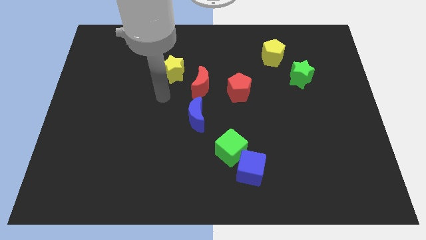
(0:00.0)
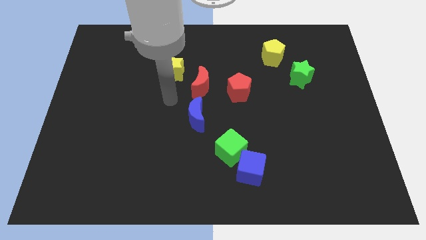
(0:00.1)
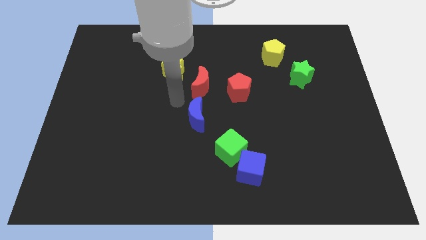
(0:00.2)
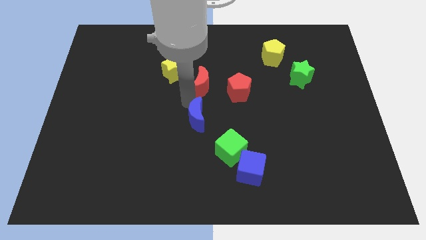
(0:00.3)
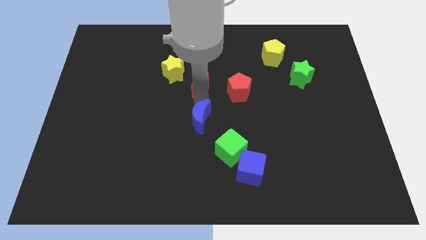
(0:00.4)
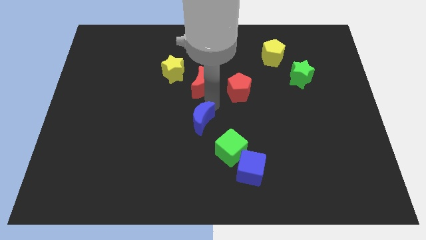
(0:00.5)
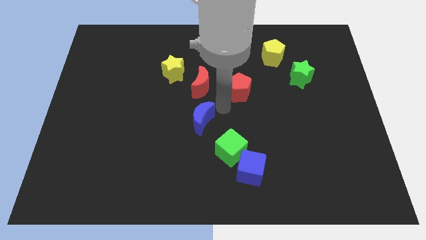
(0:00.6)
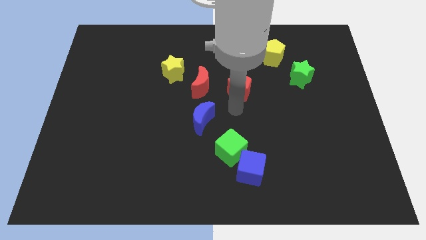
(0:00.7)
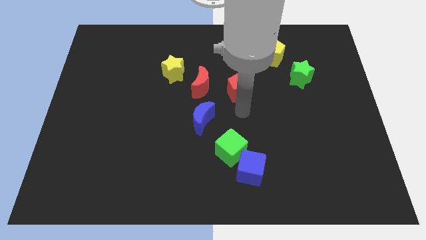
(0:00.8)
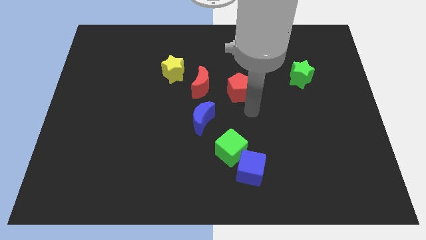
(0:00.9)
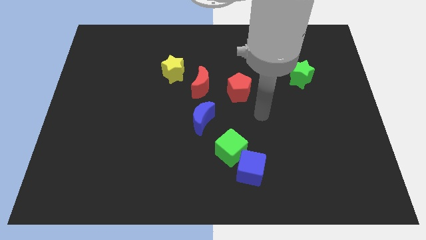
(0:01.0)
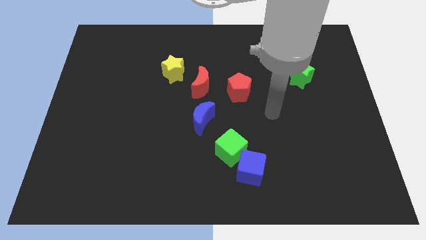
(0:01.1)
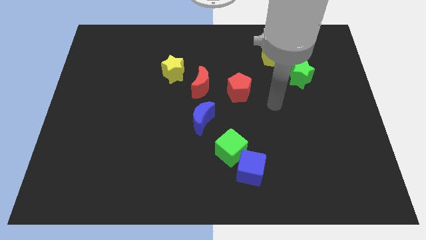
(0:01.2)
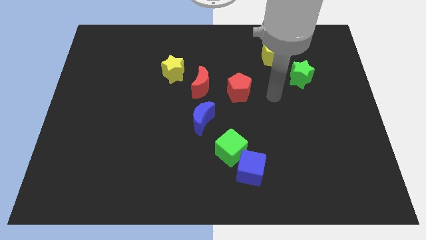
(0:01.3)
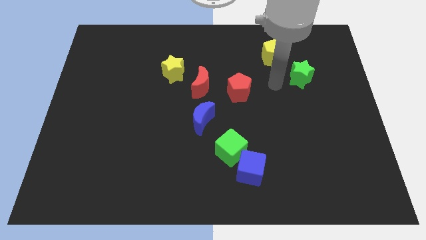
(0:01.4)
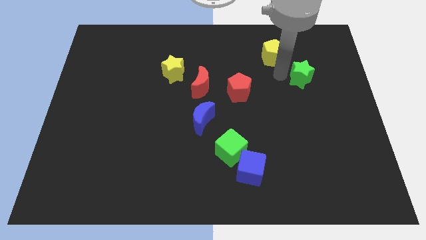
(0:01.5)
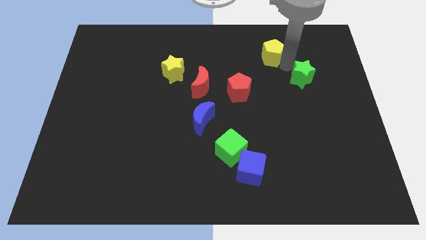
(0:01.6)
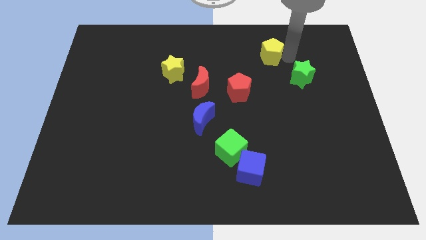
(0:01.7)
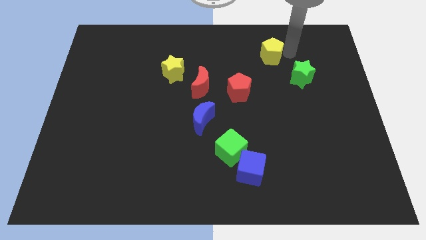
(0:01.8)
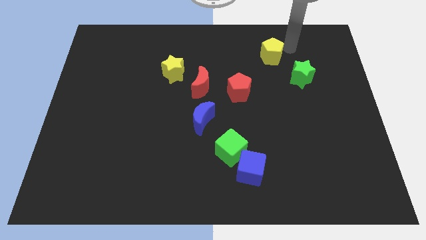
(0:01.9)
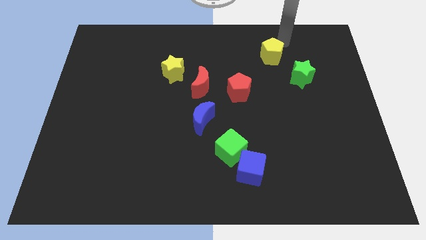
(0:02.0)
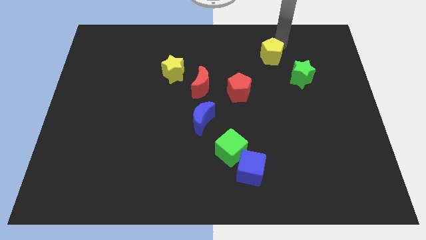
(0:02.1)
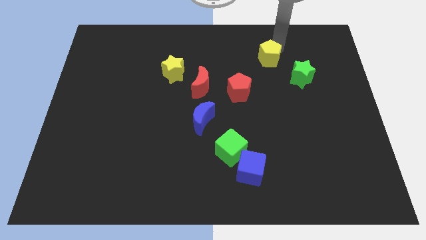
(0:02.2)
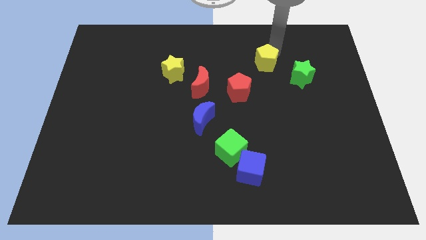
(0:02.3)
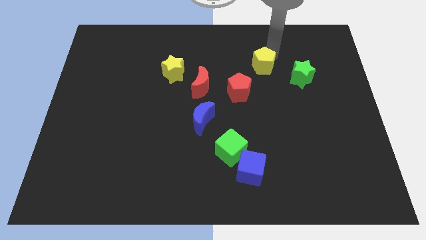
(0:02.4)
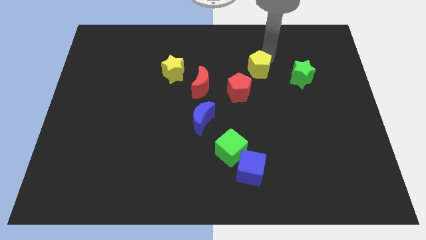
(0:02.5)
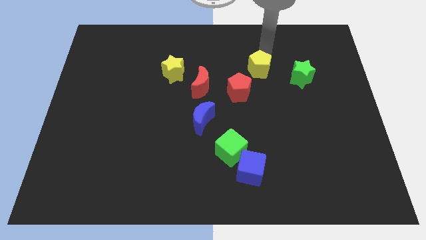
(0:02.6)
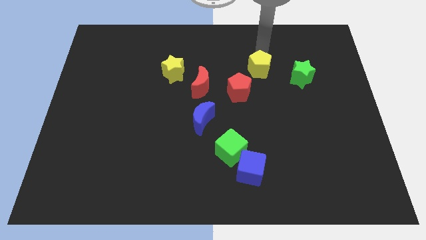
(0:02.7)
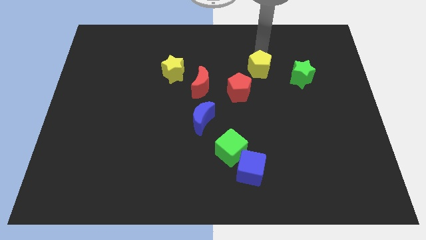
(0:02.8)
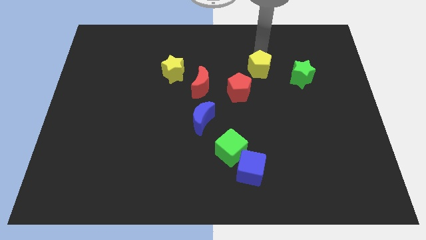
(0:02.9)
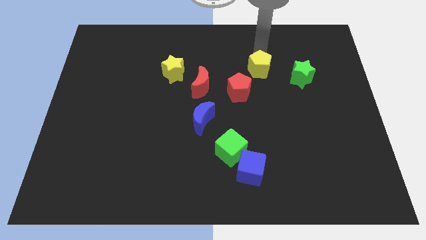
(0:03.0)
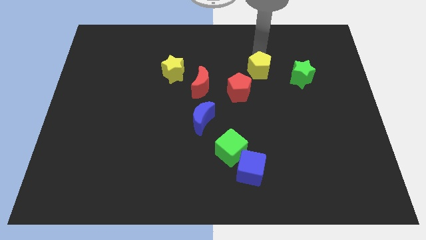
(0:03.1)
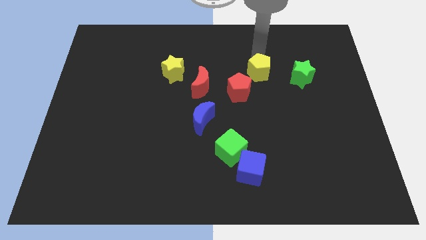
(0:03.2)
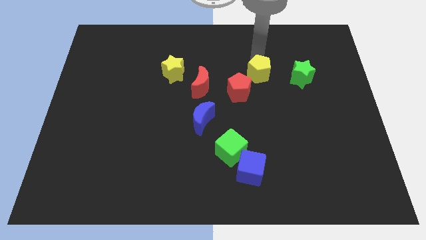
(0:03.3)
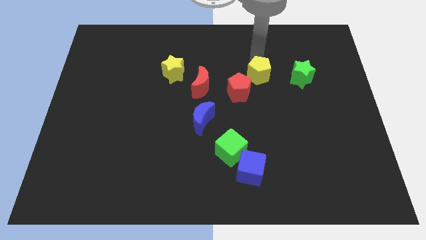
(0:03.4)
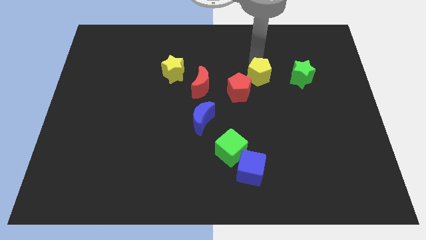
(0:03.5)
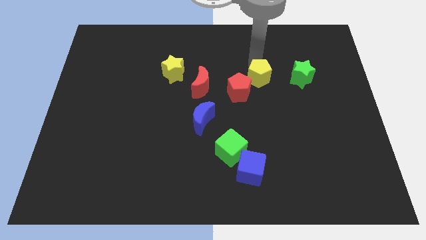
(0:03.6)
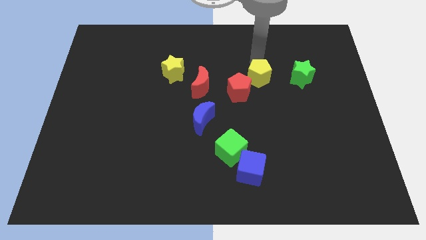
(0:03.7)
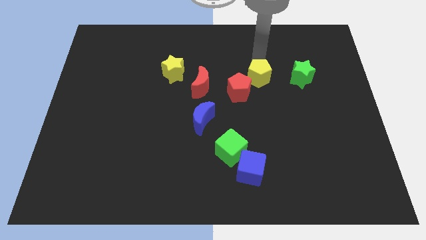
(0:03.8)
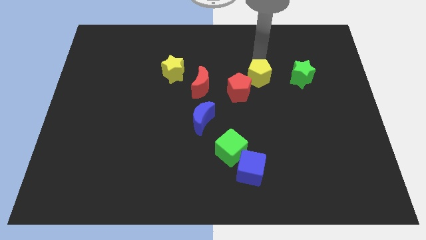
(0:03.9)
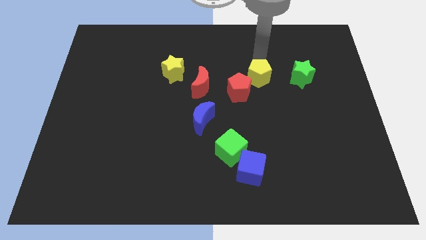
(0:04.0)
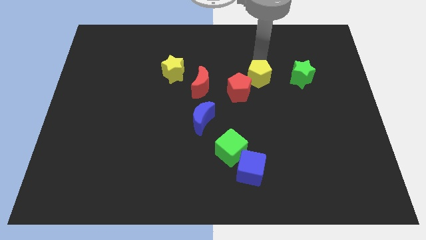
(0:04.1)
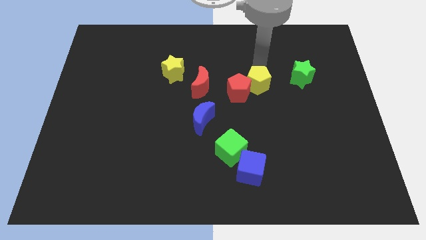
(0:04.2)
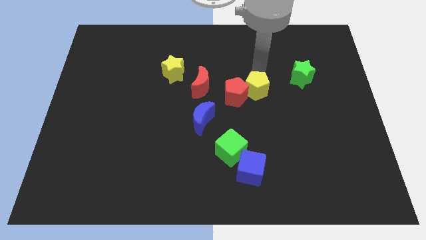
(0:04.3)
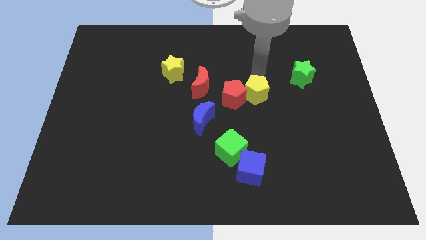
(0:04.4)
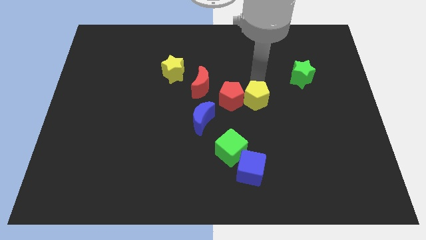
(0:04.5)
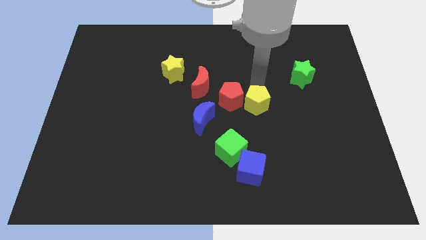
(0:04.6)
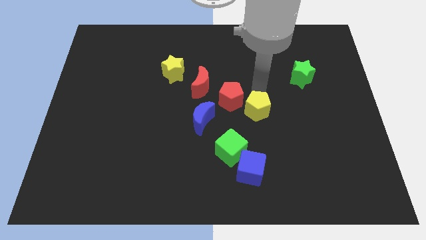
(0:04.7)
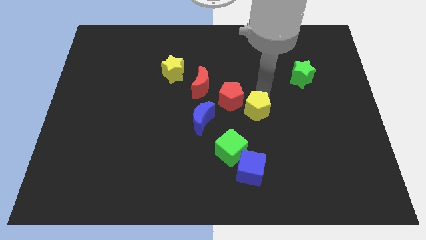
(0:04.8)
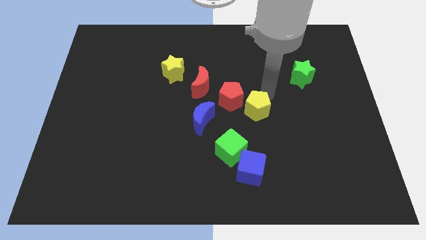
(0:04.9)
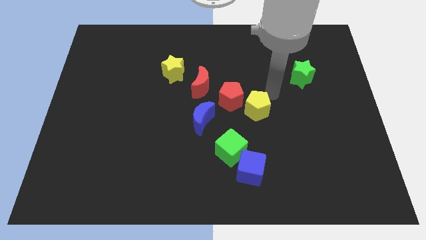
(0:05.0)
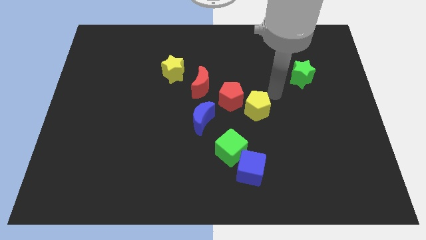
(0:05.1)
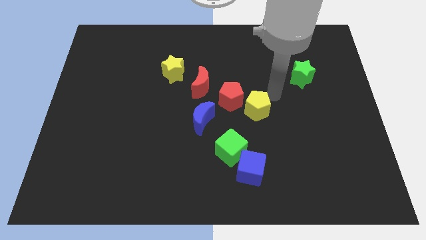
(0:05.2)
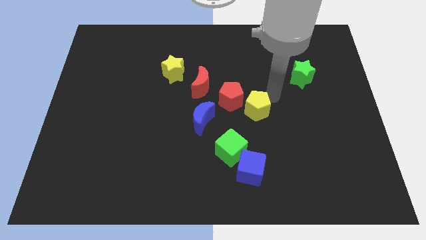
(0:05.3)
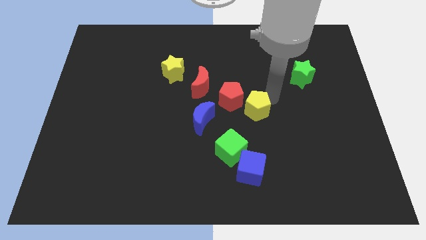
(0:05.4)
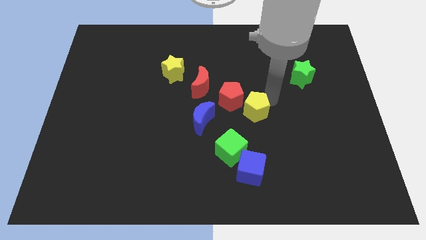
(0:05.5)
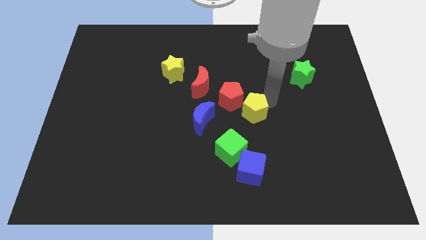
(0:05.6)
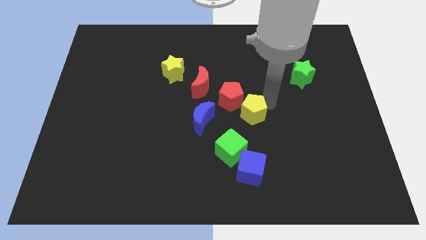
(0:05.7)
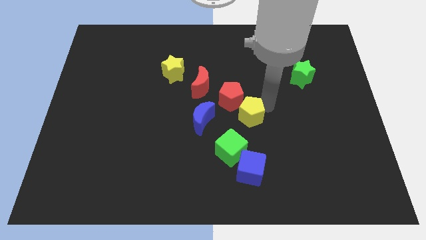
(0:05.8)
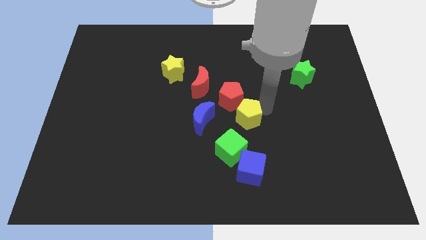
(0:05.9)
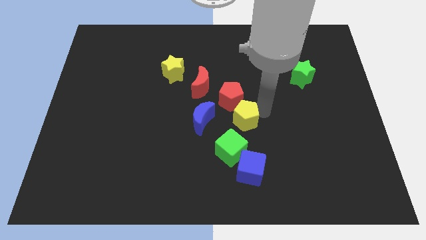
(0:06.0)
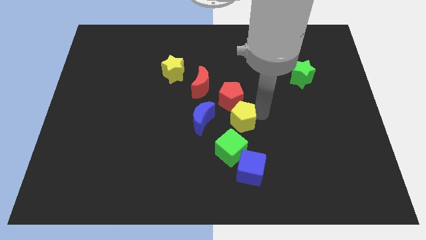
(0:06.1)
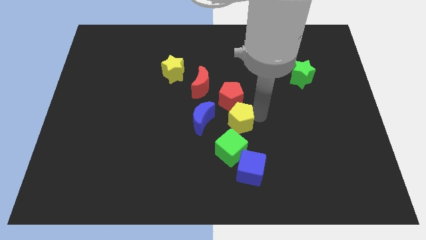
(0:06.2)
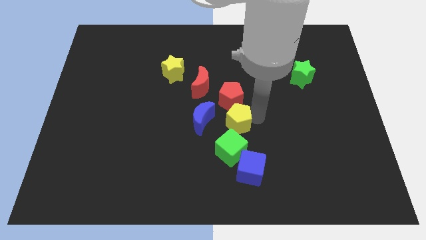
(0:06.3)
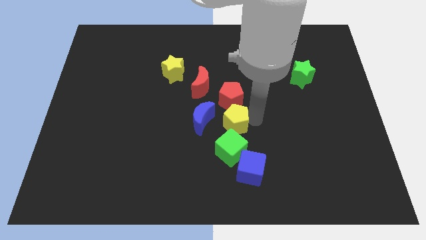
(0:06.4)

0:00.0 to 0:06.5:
push the yellow pentagon down and left diagonally

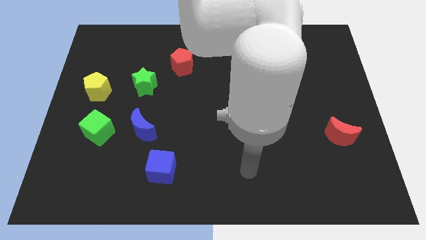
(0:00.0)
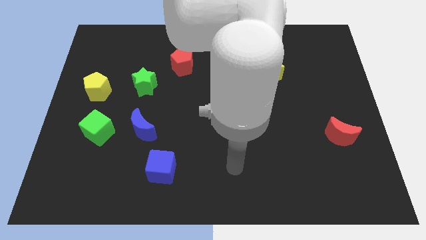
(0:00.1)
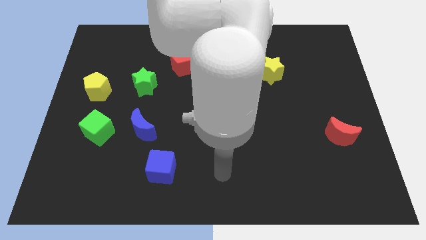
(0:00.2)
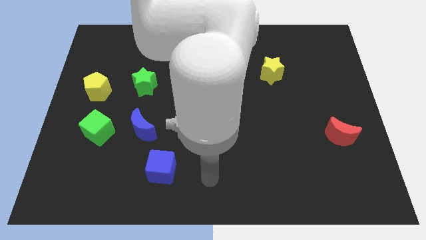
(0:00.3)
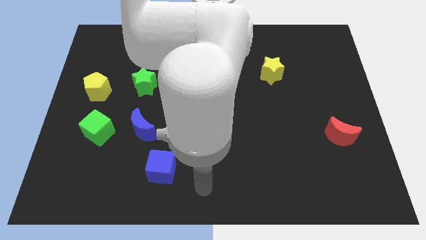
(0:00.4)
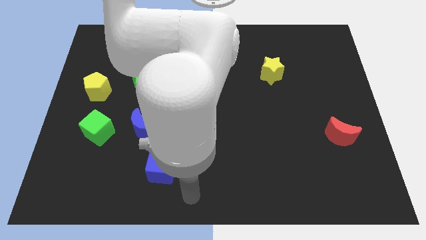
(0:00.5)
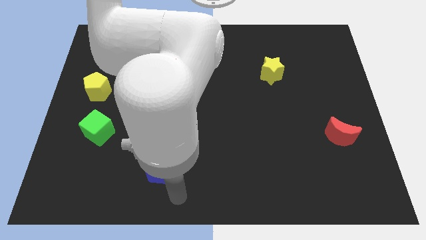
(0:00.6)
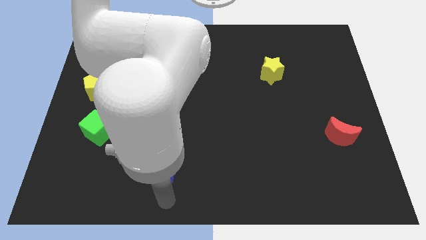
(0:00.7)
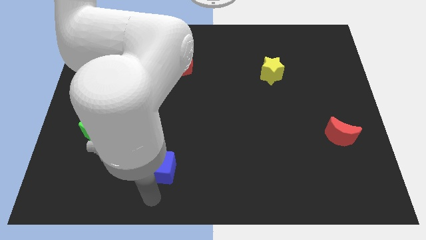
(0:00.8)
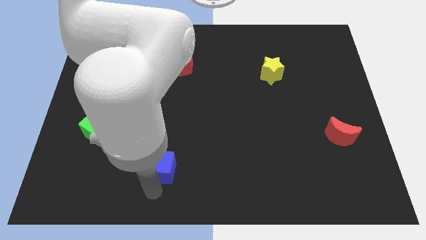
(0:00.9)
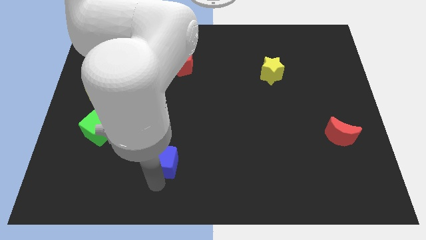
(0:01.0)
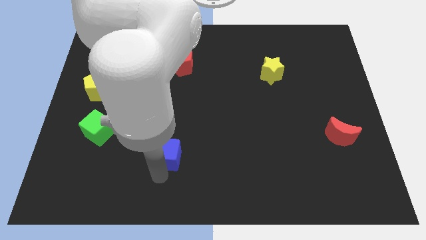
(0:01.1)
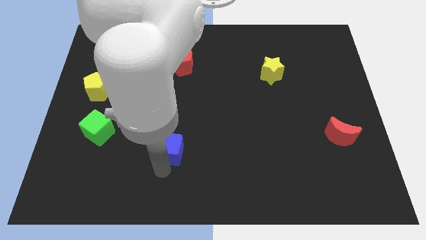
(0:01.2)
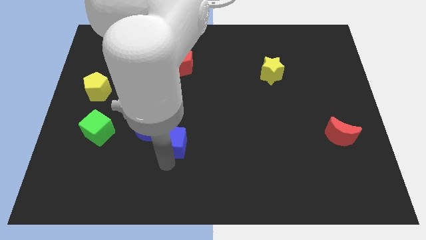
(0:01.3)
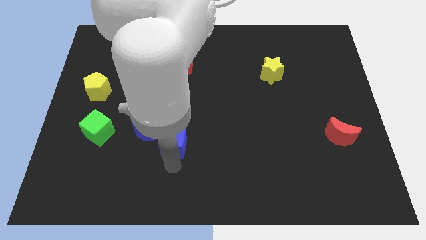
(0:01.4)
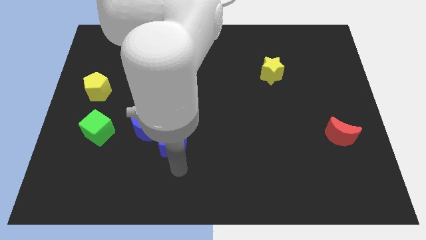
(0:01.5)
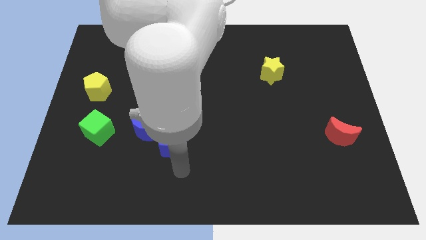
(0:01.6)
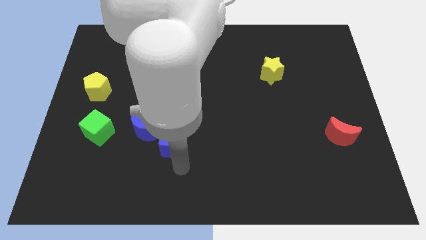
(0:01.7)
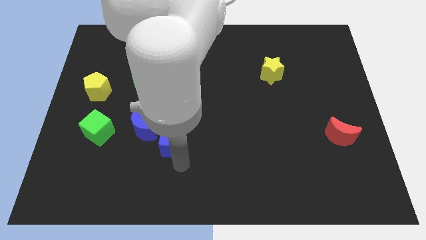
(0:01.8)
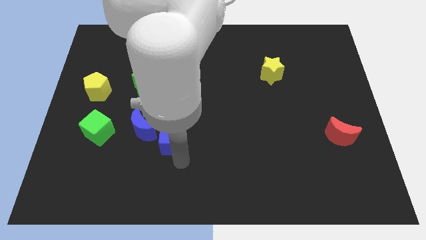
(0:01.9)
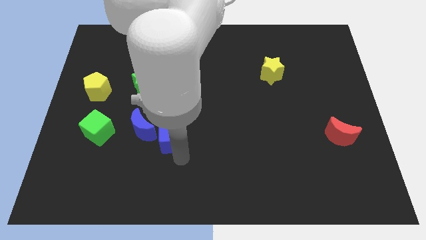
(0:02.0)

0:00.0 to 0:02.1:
slide the blue cube a bit up
